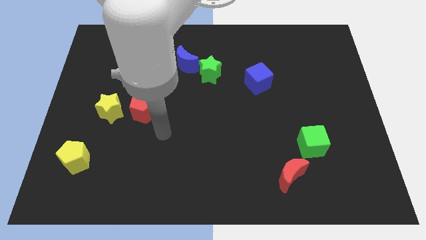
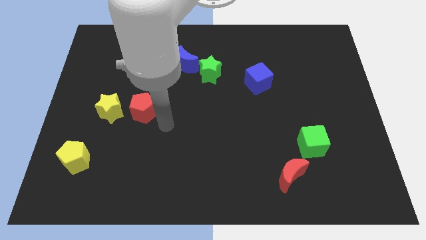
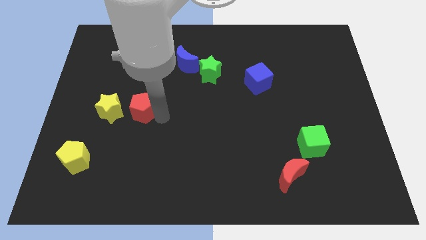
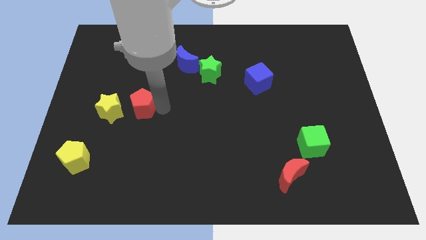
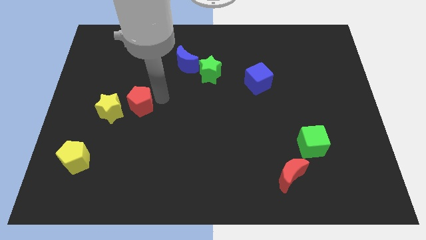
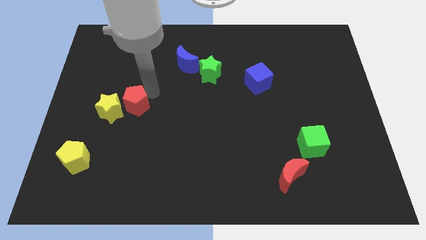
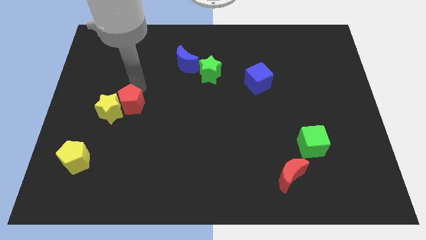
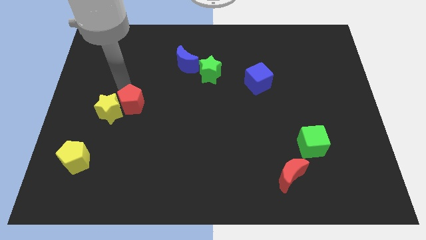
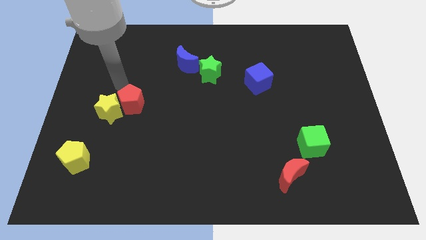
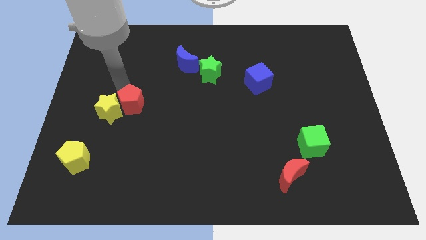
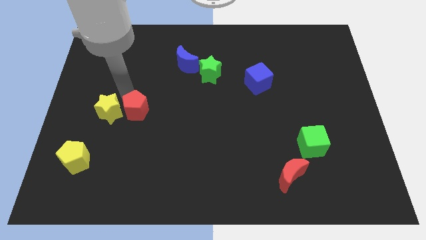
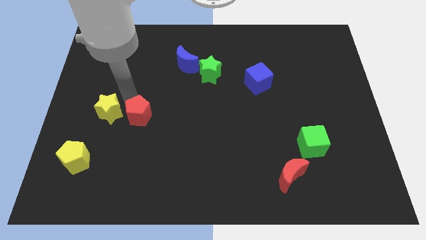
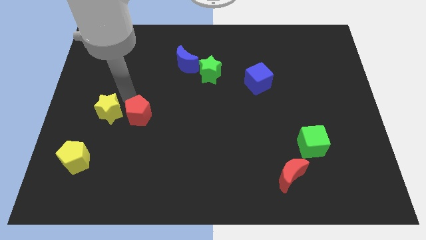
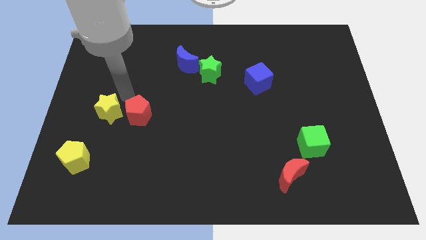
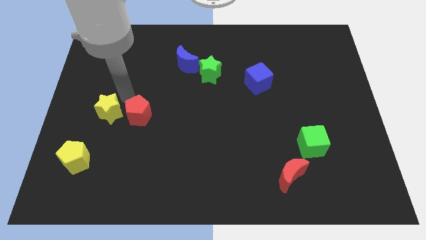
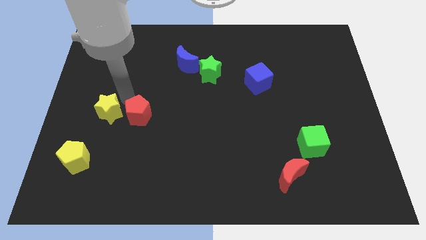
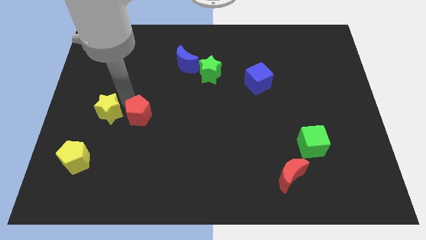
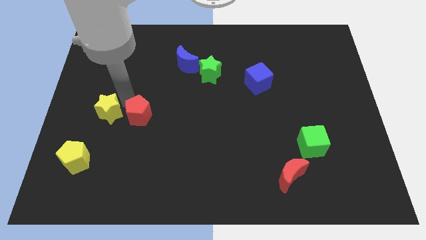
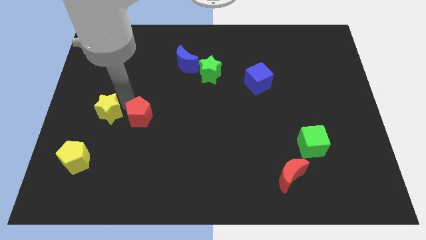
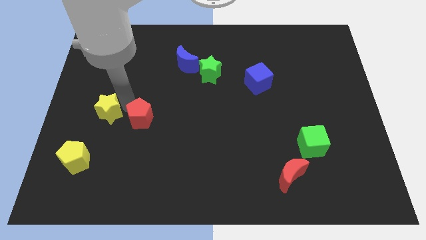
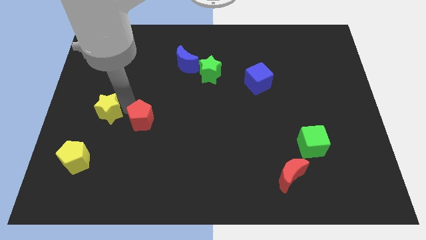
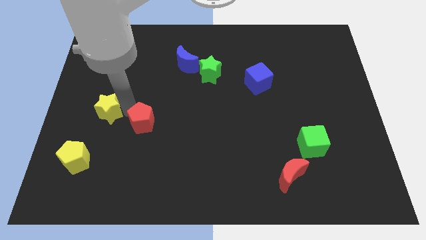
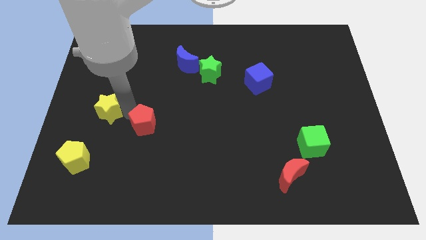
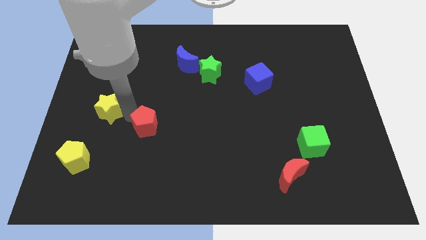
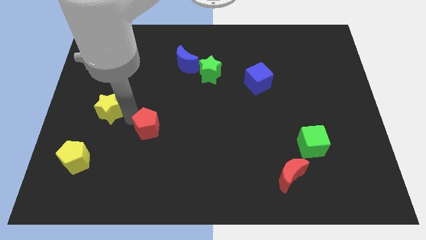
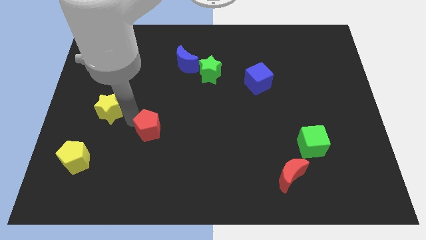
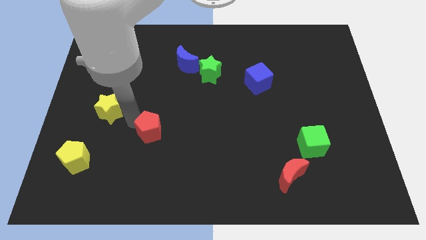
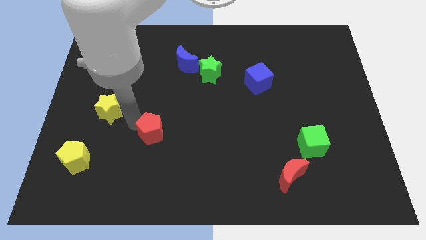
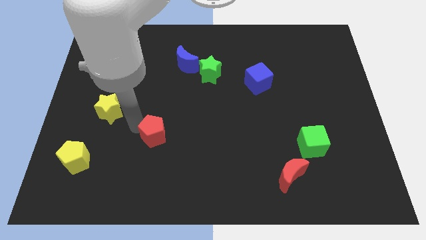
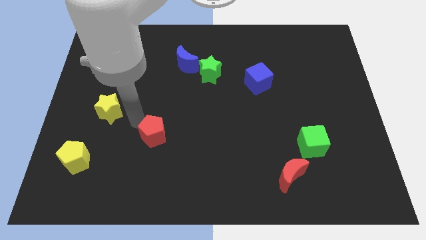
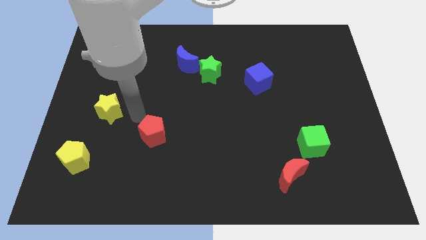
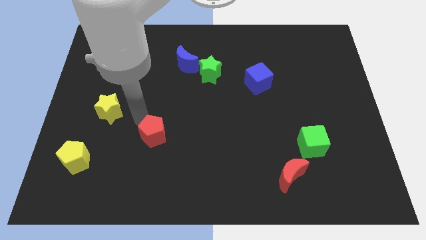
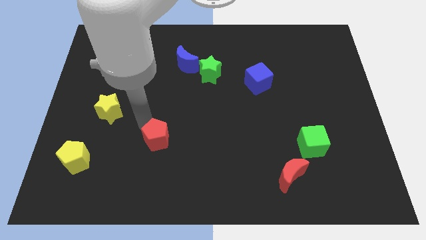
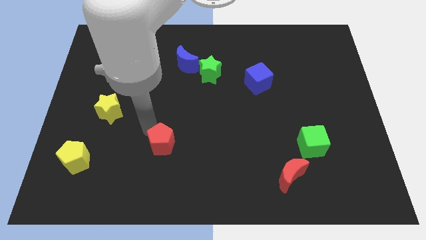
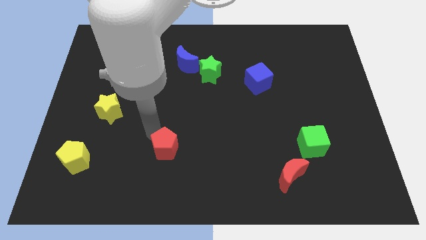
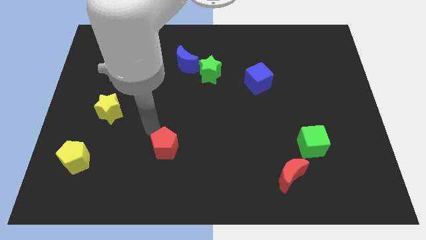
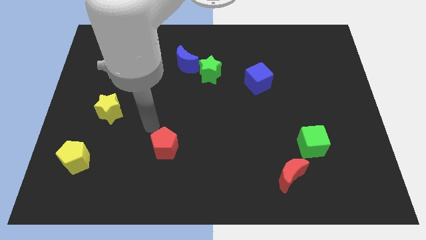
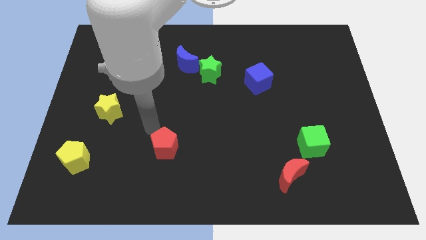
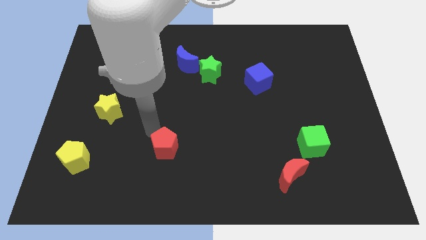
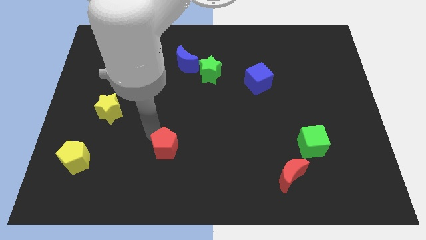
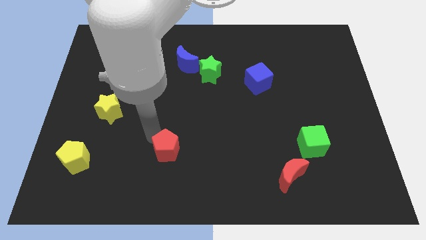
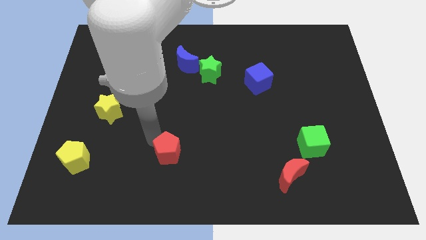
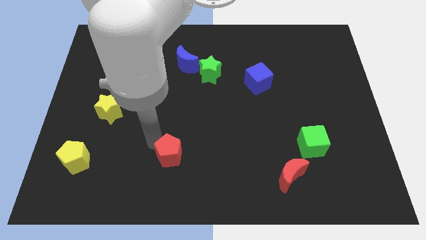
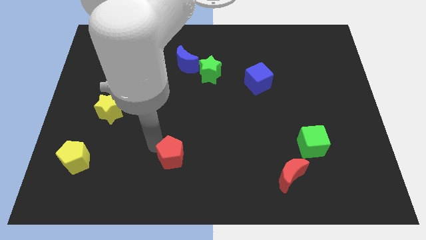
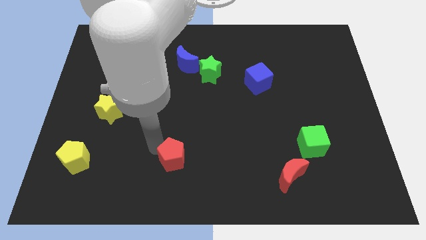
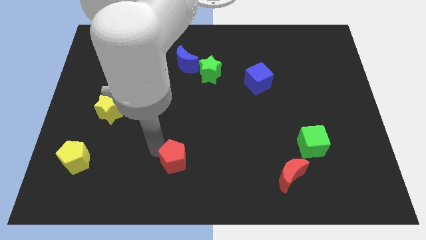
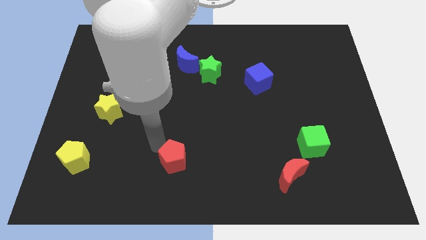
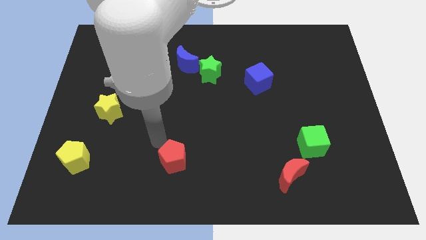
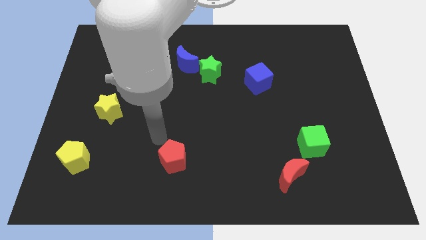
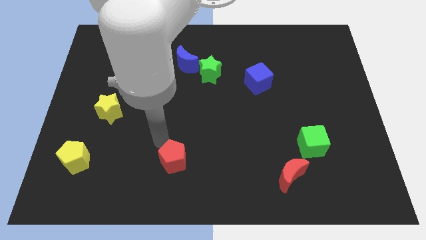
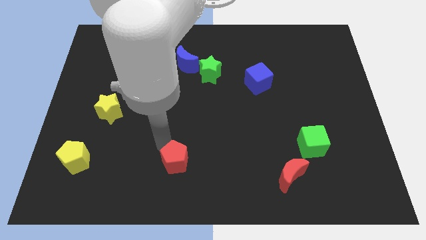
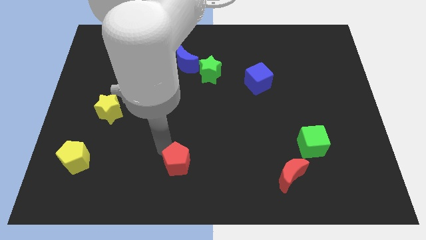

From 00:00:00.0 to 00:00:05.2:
put the red pentagon to the bottom
